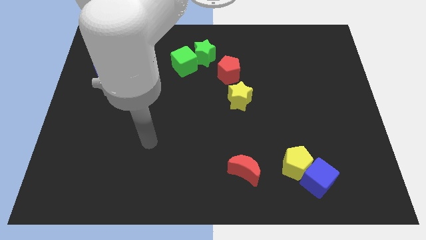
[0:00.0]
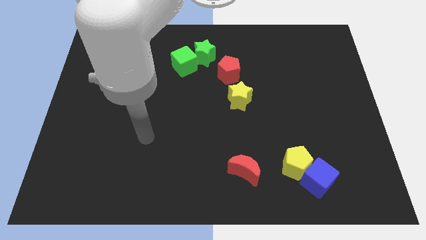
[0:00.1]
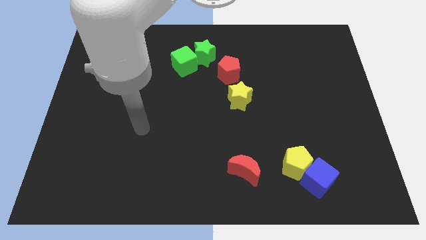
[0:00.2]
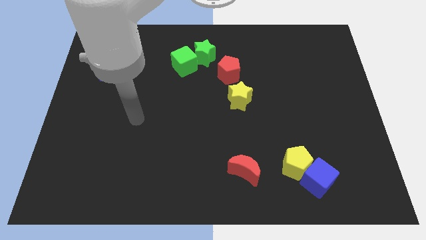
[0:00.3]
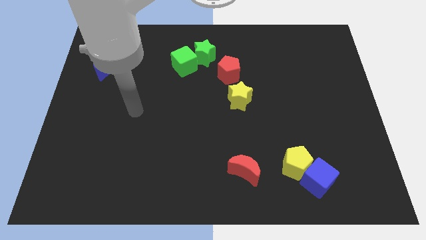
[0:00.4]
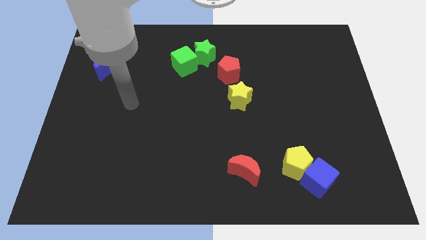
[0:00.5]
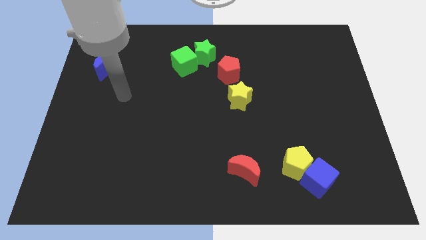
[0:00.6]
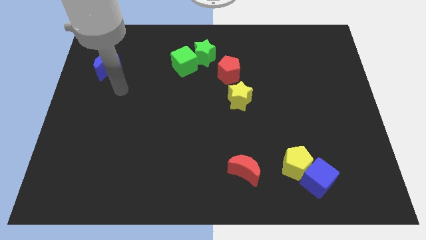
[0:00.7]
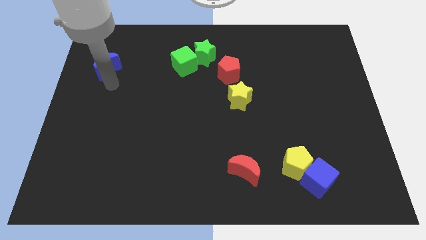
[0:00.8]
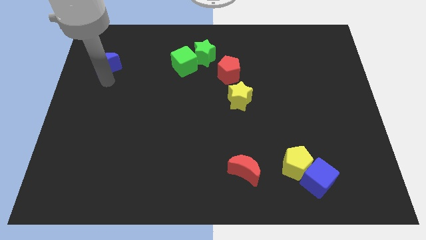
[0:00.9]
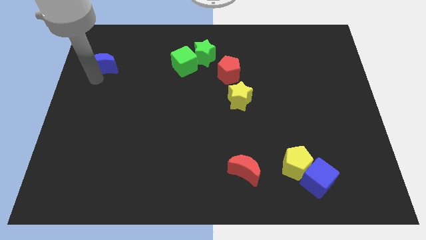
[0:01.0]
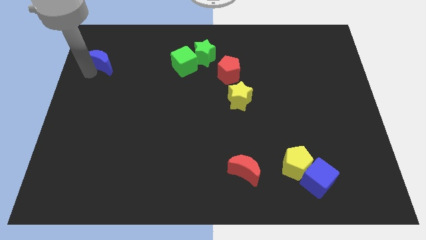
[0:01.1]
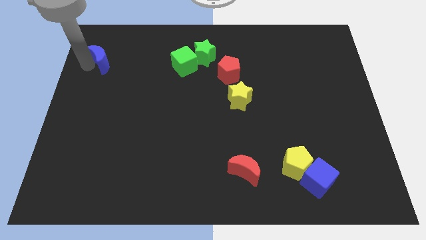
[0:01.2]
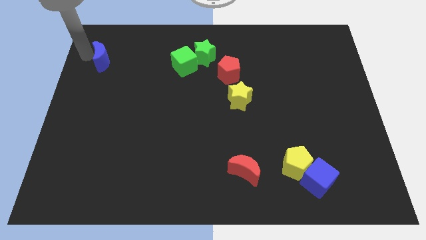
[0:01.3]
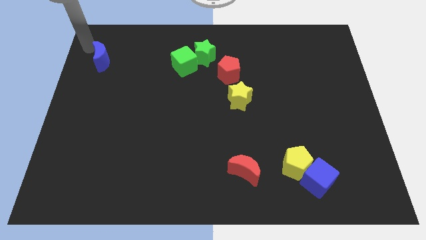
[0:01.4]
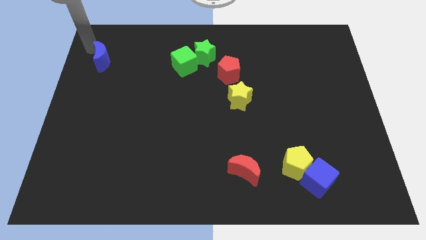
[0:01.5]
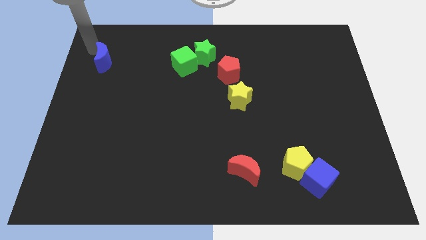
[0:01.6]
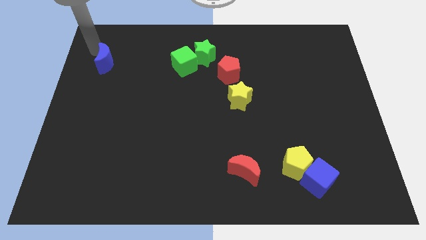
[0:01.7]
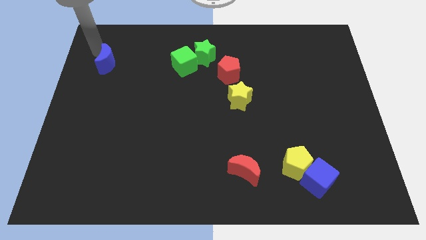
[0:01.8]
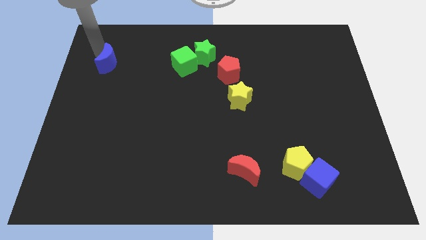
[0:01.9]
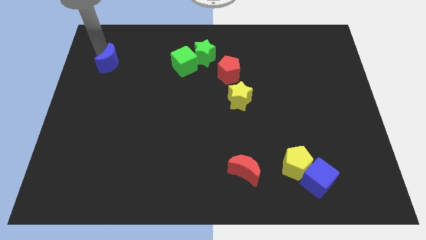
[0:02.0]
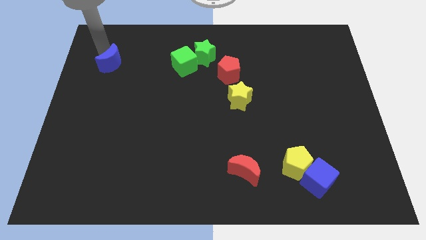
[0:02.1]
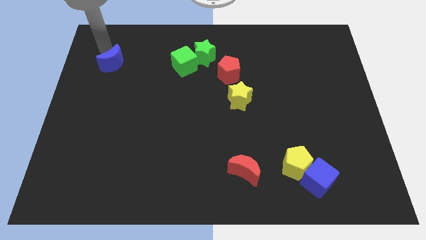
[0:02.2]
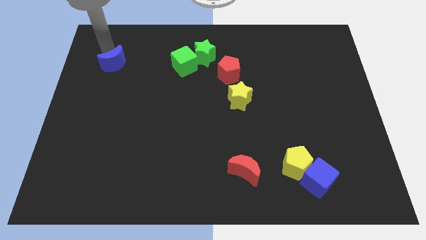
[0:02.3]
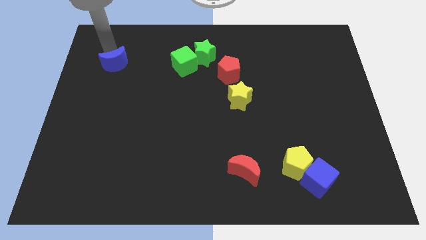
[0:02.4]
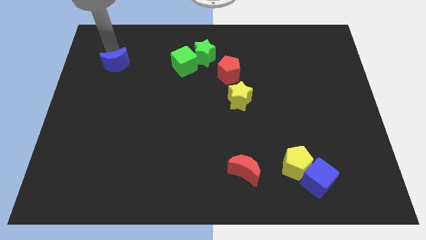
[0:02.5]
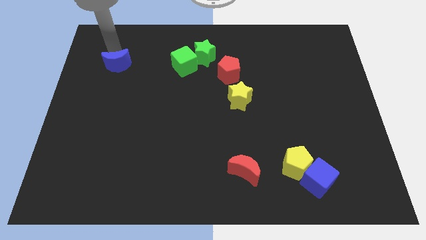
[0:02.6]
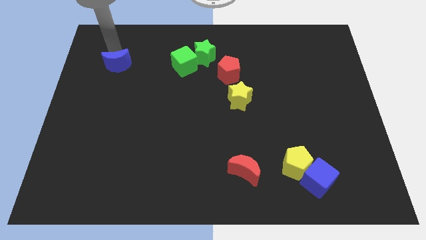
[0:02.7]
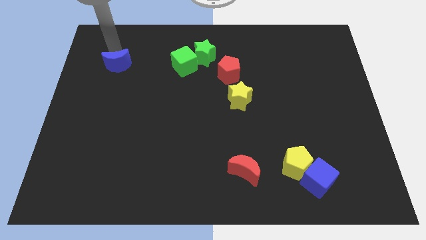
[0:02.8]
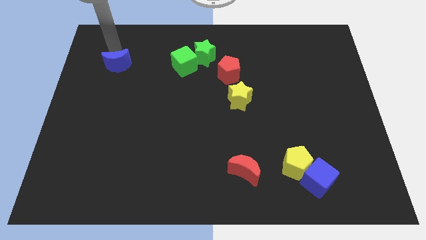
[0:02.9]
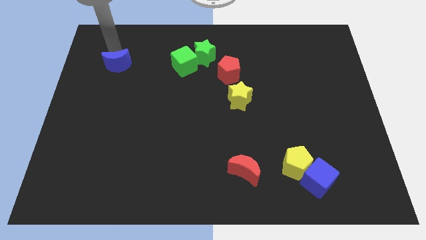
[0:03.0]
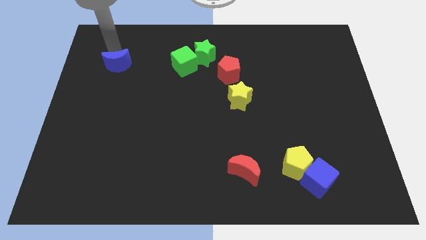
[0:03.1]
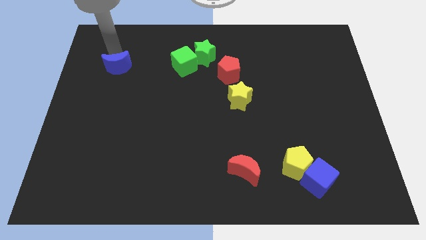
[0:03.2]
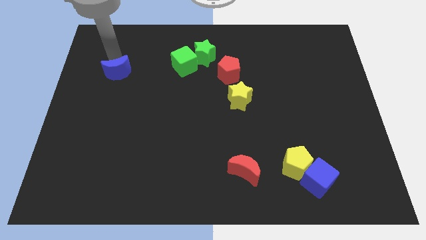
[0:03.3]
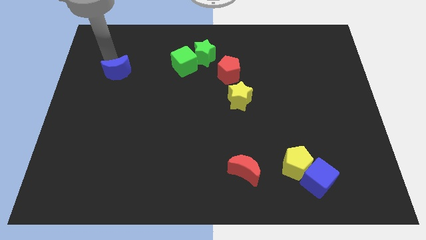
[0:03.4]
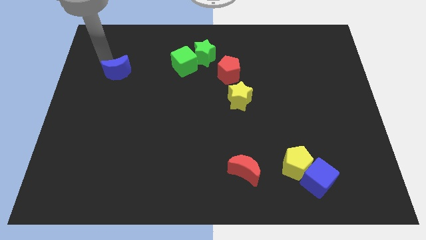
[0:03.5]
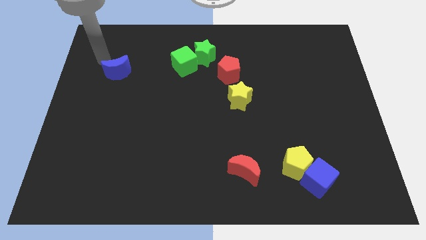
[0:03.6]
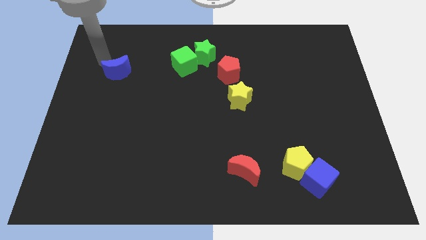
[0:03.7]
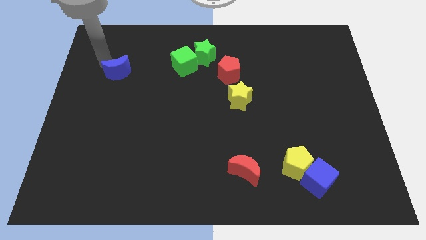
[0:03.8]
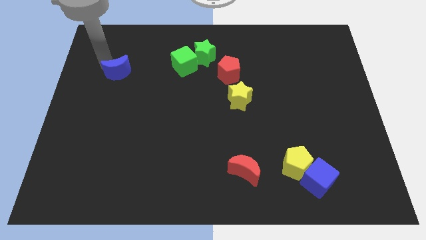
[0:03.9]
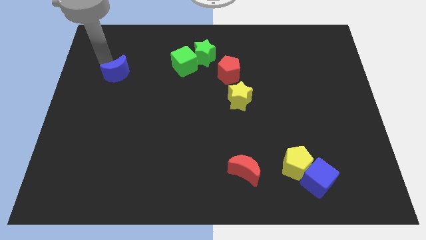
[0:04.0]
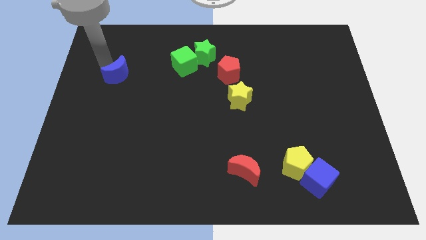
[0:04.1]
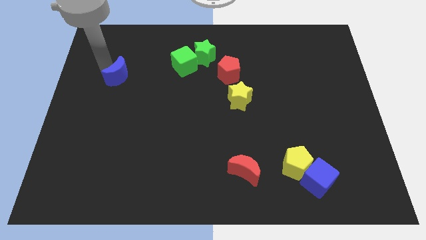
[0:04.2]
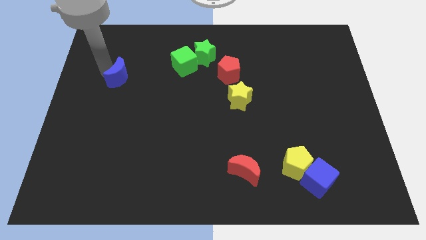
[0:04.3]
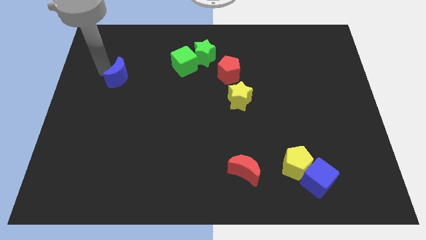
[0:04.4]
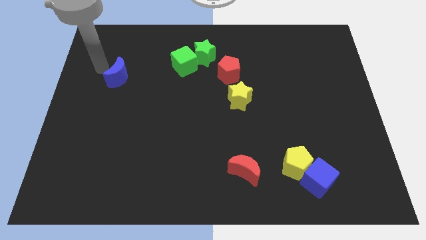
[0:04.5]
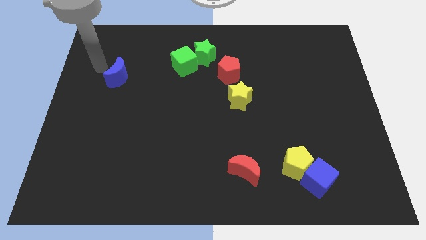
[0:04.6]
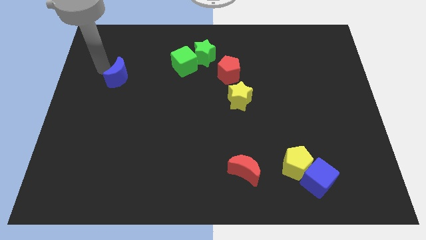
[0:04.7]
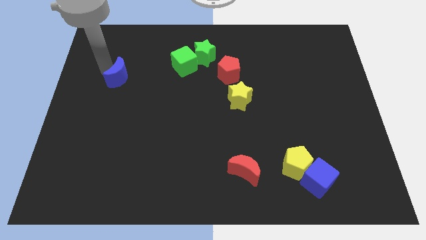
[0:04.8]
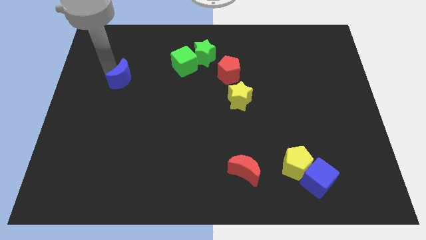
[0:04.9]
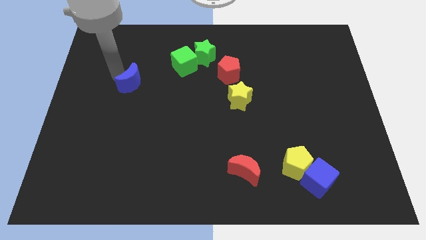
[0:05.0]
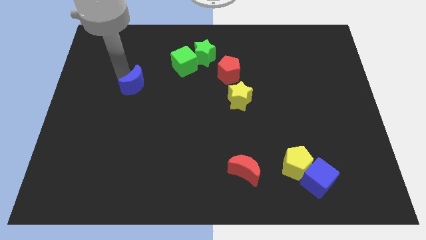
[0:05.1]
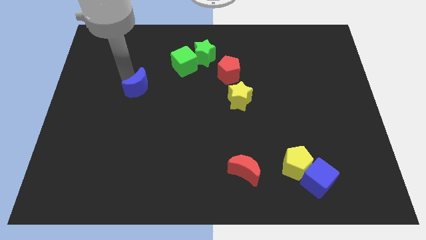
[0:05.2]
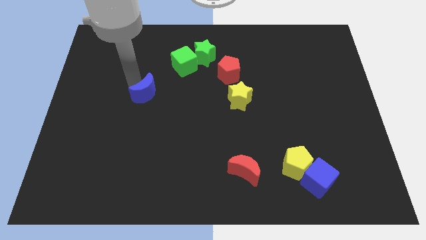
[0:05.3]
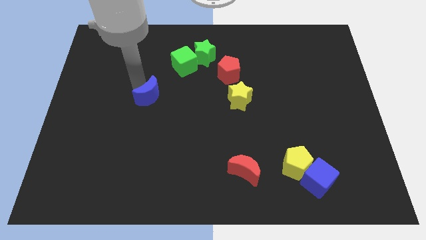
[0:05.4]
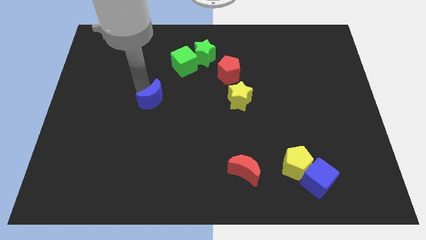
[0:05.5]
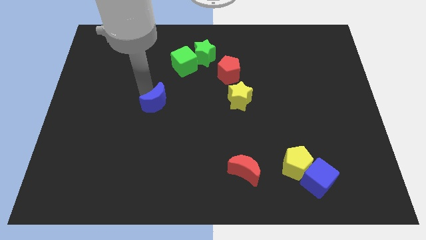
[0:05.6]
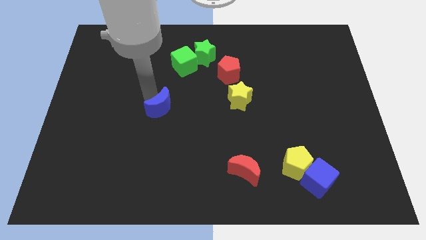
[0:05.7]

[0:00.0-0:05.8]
slide the blue moon downwards and then to the right

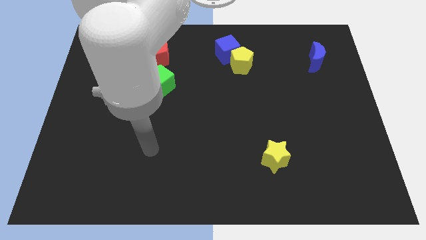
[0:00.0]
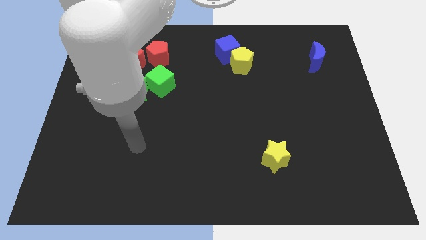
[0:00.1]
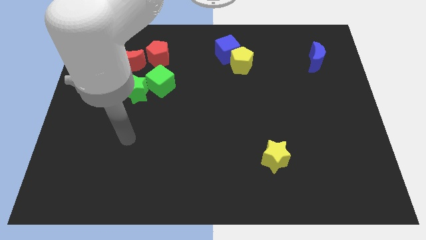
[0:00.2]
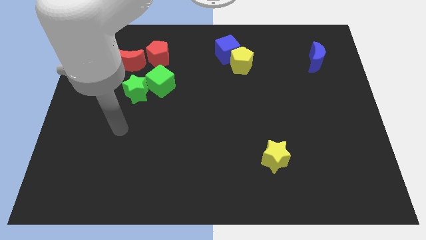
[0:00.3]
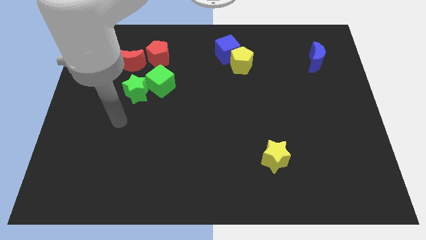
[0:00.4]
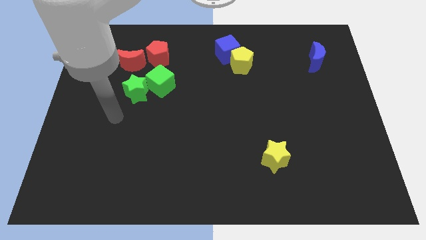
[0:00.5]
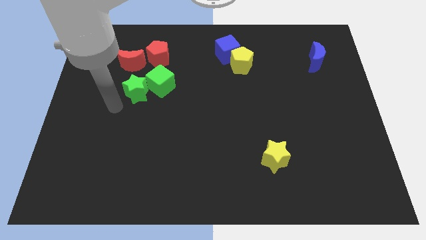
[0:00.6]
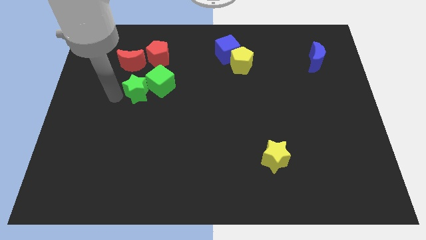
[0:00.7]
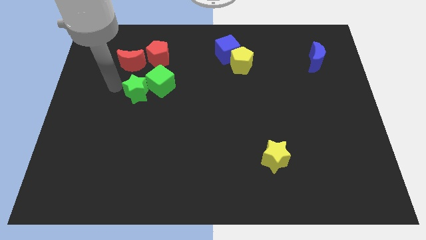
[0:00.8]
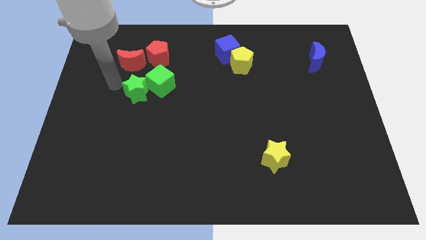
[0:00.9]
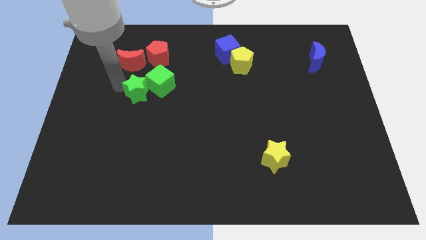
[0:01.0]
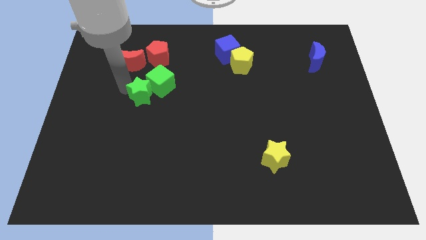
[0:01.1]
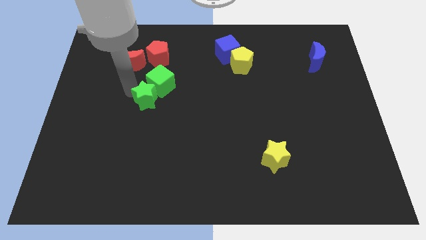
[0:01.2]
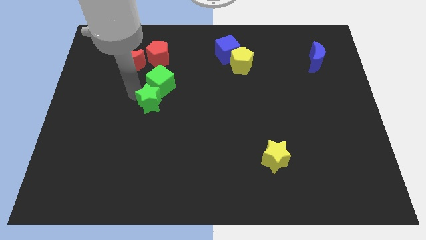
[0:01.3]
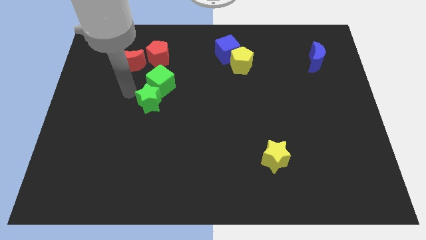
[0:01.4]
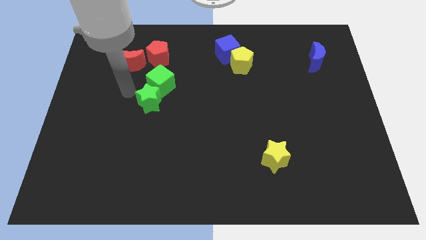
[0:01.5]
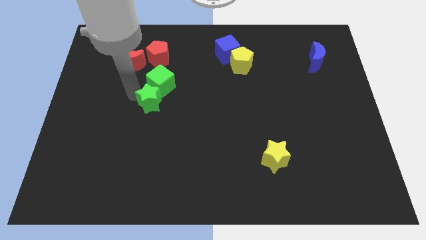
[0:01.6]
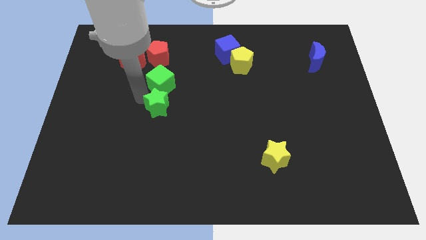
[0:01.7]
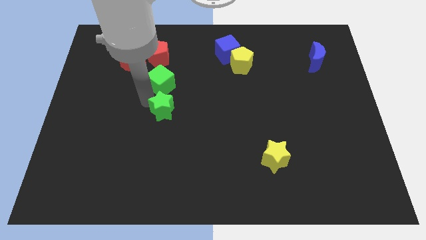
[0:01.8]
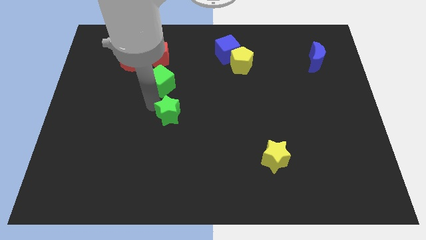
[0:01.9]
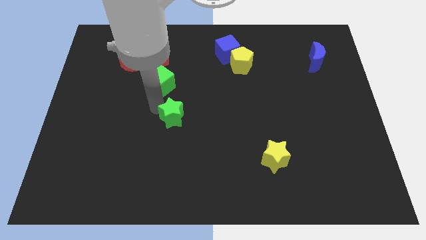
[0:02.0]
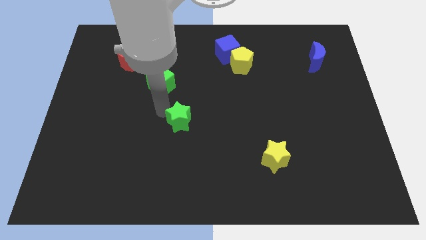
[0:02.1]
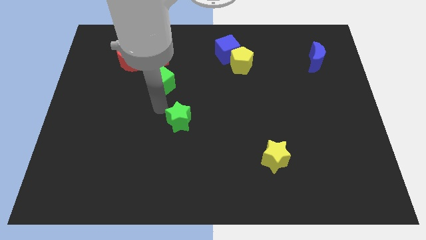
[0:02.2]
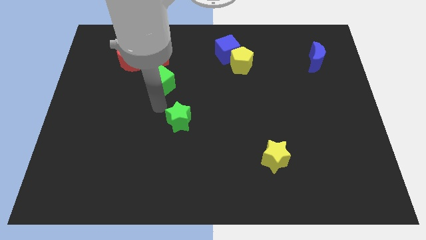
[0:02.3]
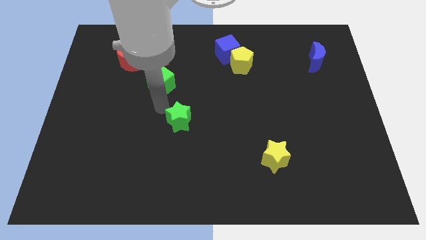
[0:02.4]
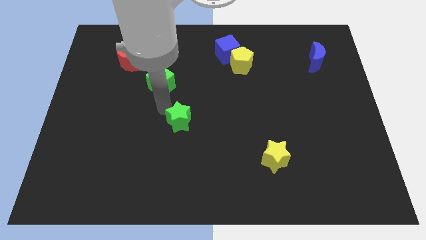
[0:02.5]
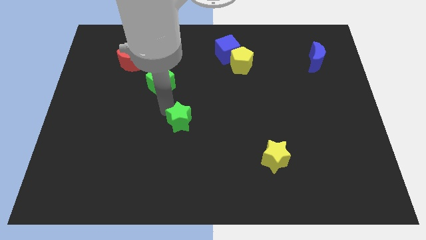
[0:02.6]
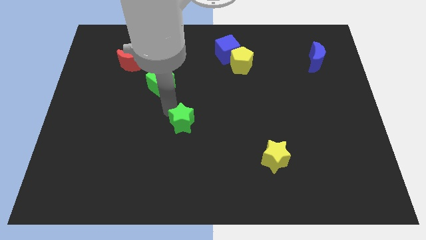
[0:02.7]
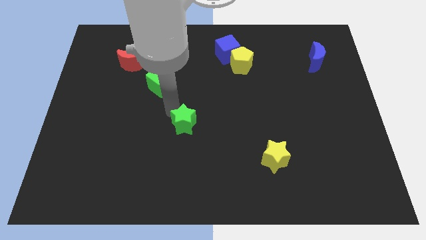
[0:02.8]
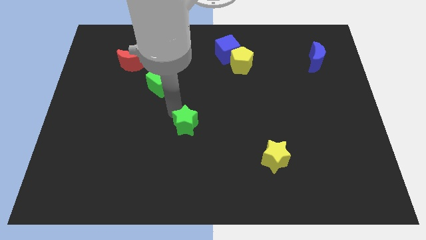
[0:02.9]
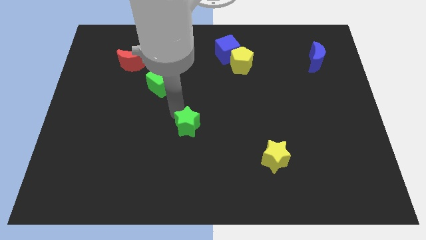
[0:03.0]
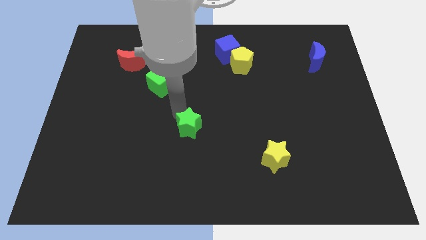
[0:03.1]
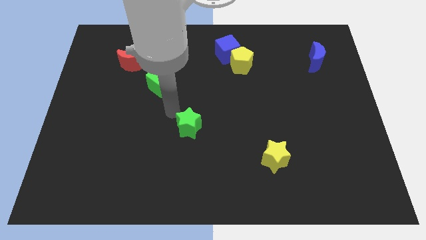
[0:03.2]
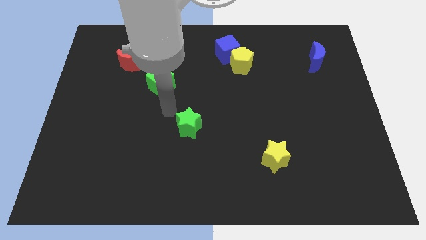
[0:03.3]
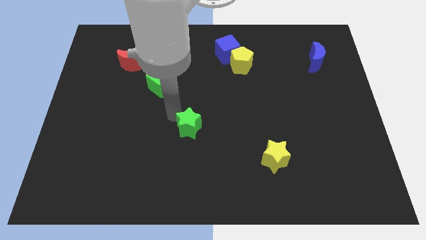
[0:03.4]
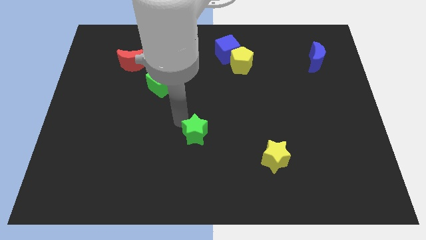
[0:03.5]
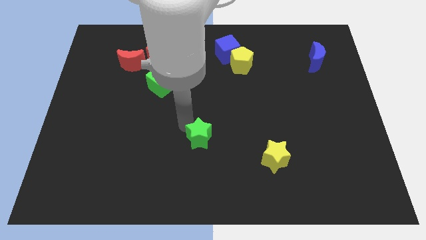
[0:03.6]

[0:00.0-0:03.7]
push the green star downwards and to the right diagonally
